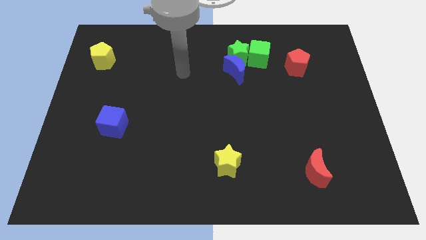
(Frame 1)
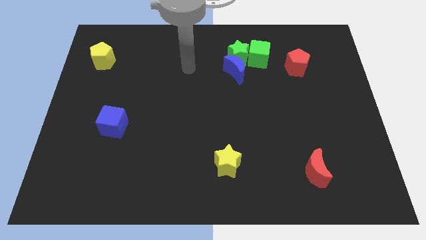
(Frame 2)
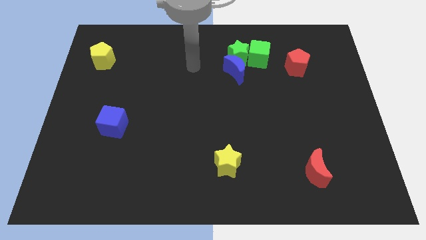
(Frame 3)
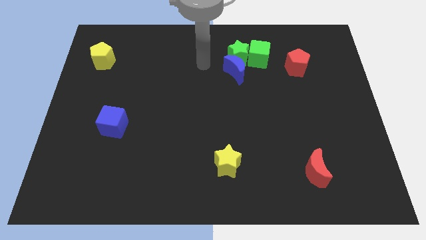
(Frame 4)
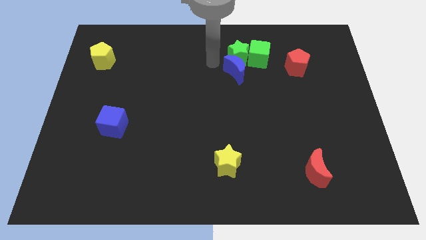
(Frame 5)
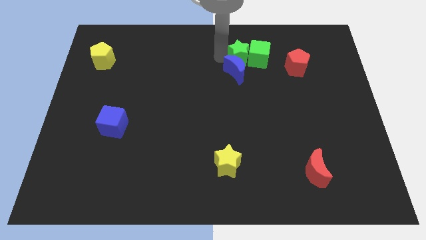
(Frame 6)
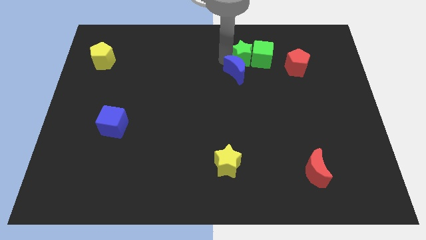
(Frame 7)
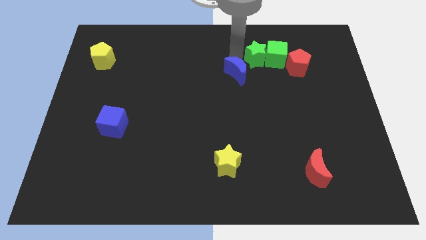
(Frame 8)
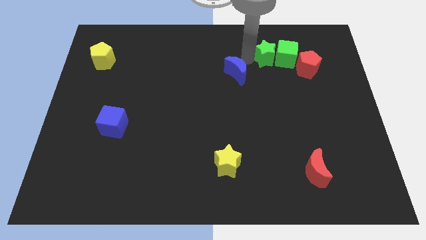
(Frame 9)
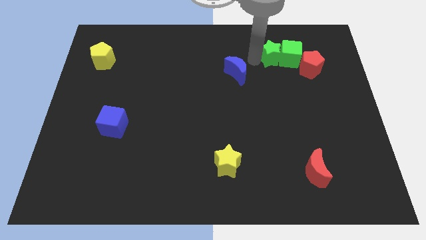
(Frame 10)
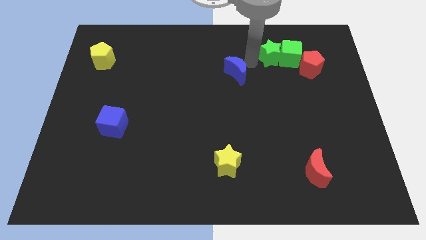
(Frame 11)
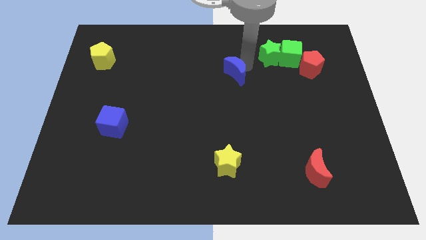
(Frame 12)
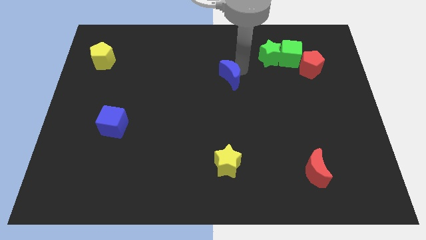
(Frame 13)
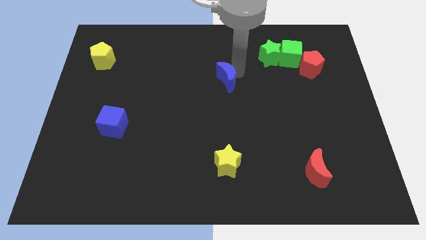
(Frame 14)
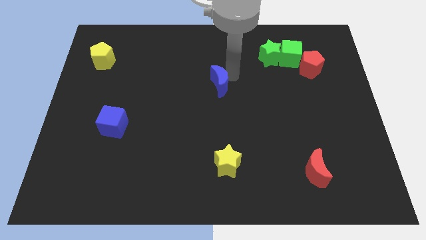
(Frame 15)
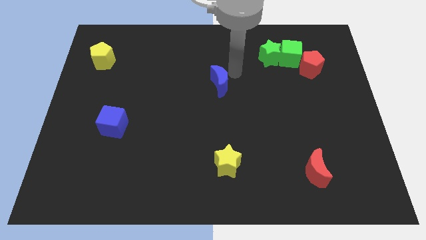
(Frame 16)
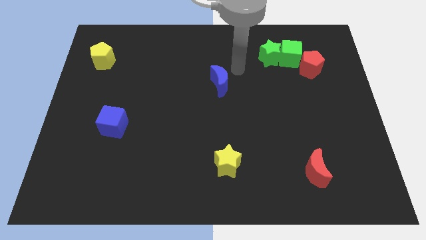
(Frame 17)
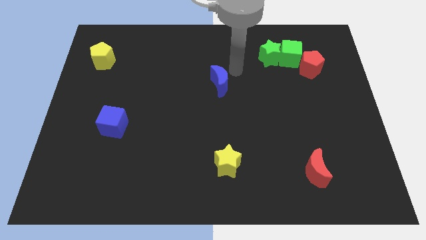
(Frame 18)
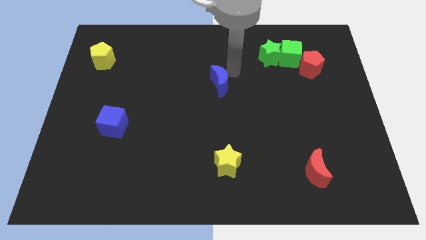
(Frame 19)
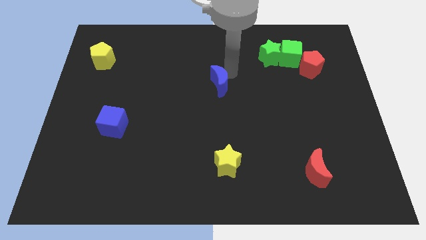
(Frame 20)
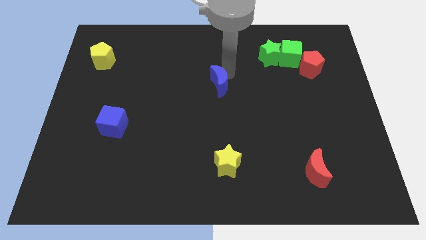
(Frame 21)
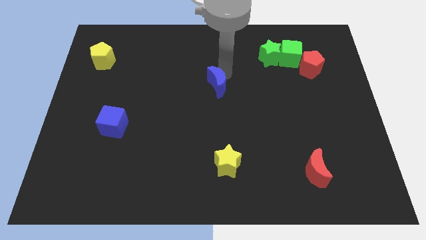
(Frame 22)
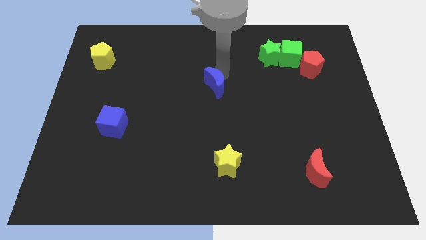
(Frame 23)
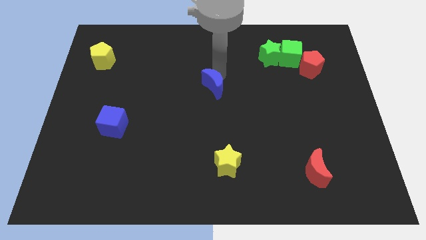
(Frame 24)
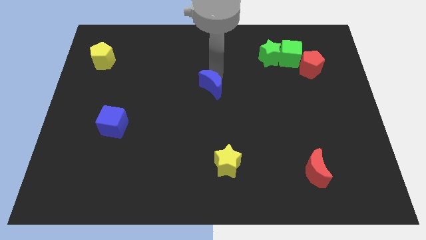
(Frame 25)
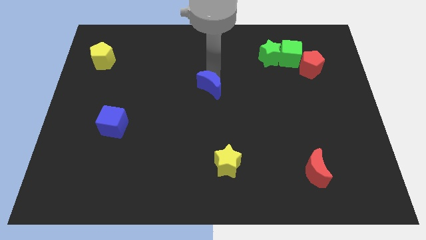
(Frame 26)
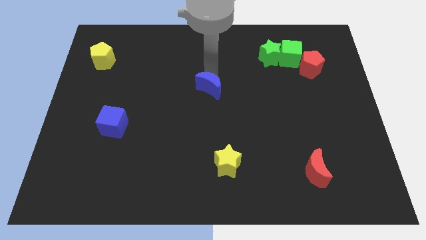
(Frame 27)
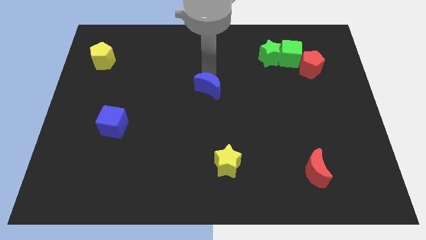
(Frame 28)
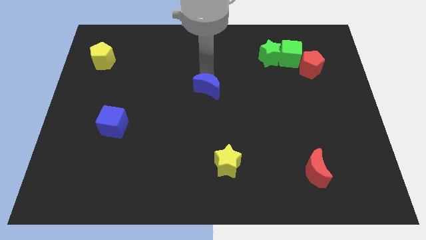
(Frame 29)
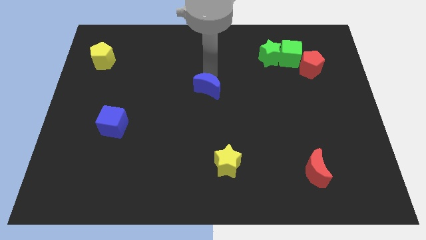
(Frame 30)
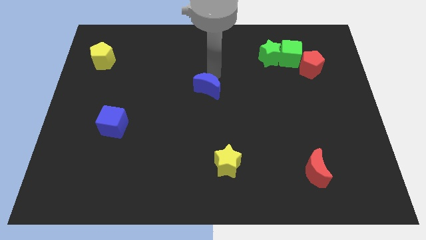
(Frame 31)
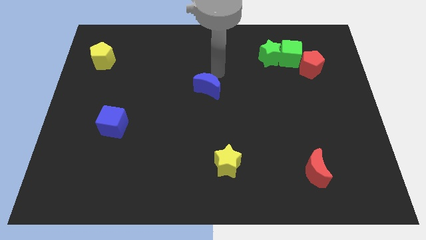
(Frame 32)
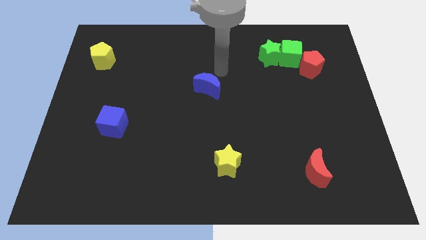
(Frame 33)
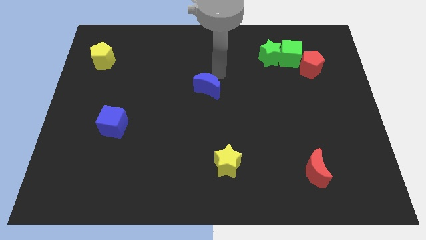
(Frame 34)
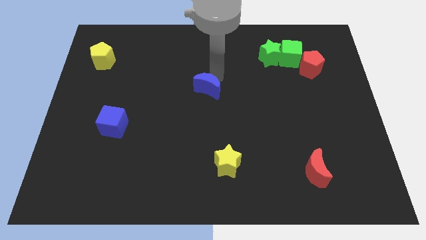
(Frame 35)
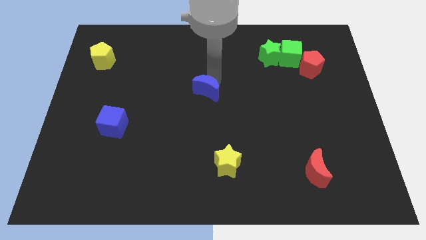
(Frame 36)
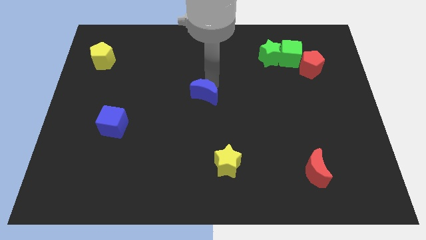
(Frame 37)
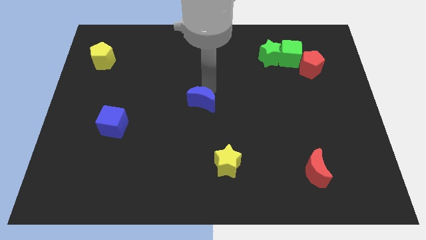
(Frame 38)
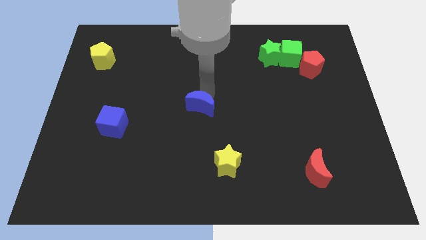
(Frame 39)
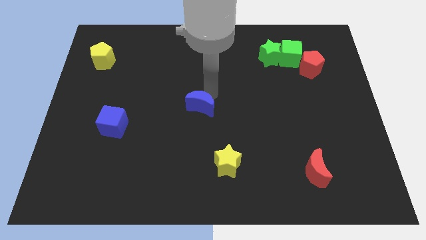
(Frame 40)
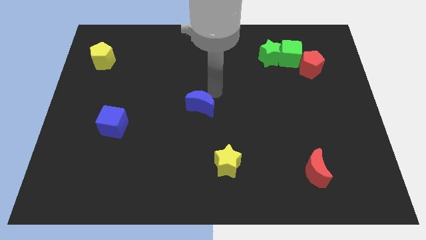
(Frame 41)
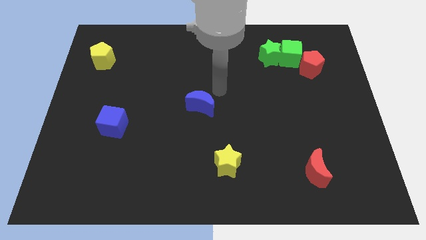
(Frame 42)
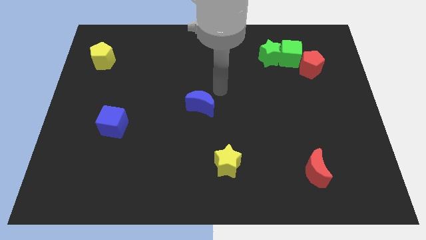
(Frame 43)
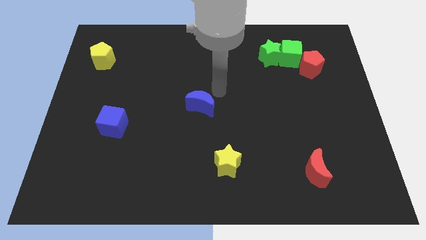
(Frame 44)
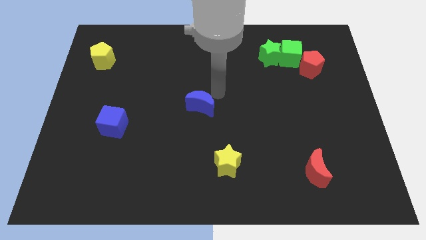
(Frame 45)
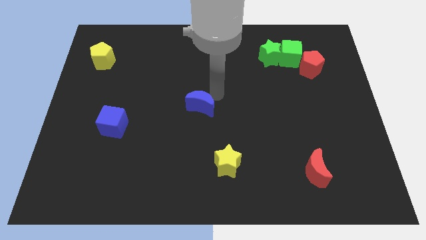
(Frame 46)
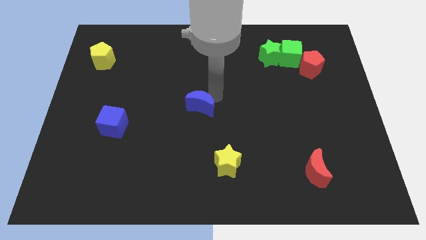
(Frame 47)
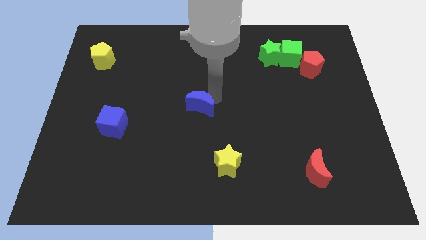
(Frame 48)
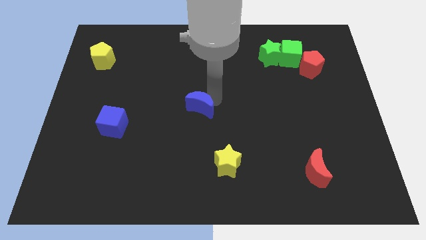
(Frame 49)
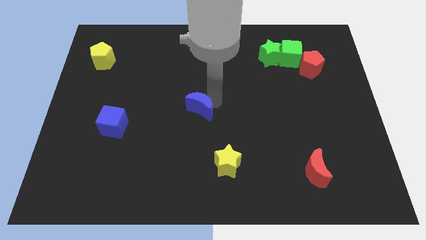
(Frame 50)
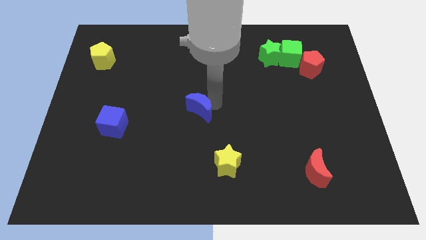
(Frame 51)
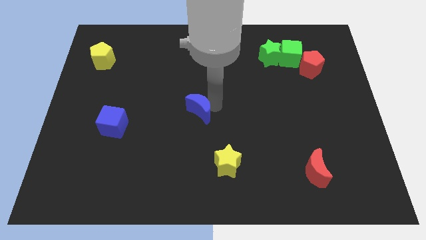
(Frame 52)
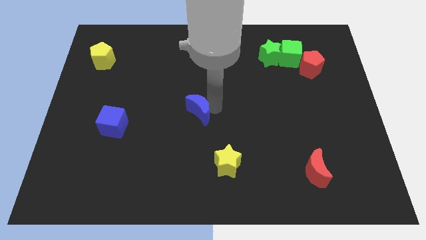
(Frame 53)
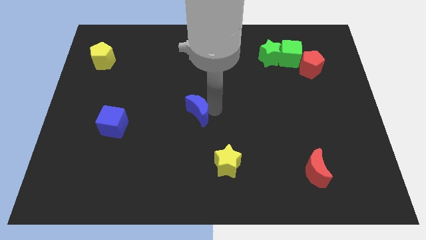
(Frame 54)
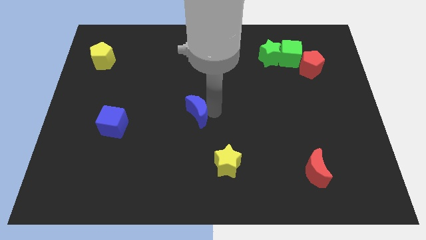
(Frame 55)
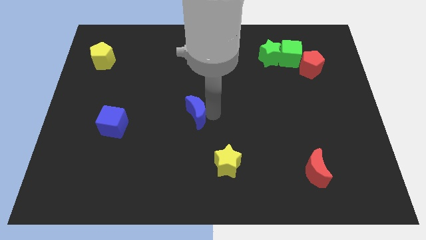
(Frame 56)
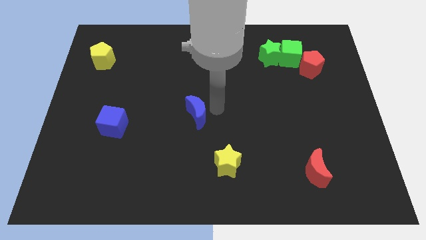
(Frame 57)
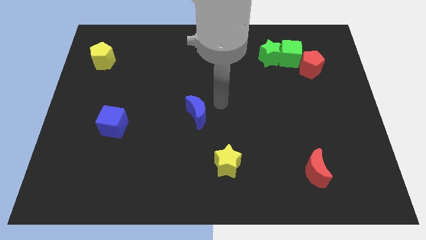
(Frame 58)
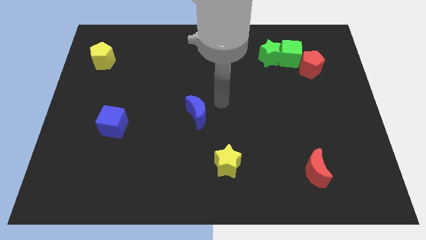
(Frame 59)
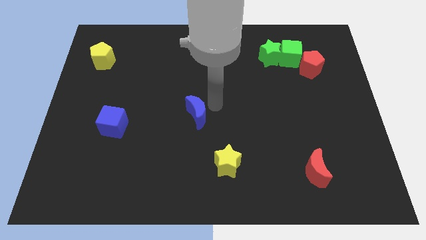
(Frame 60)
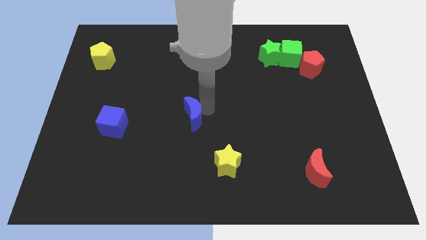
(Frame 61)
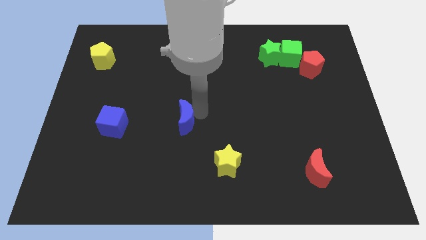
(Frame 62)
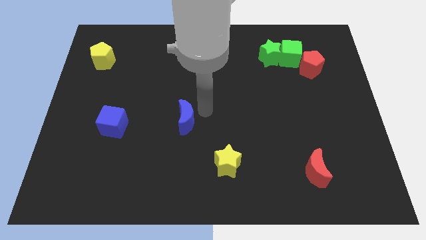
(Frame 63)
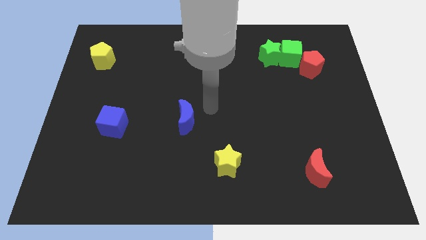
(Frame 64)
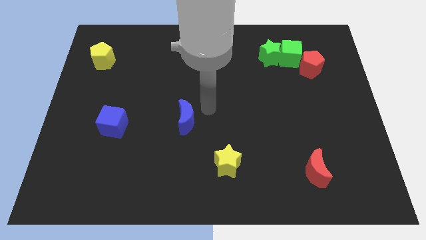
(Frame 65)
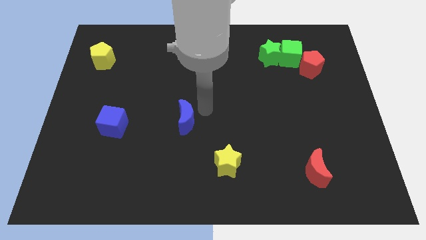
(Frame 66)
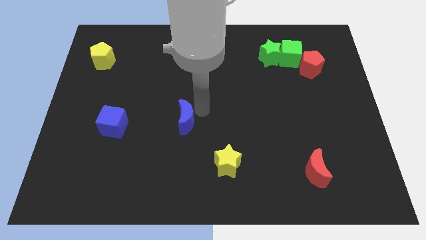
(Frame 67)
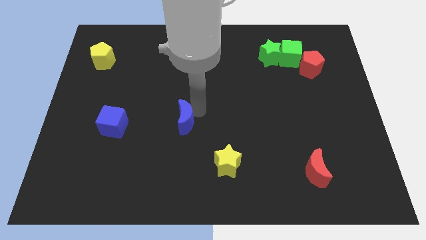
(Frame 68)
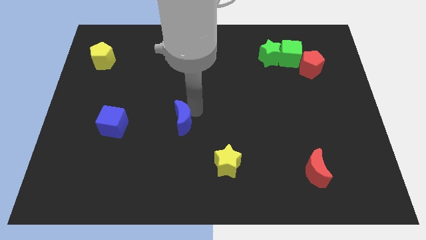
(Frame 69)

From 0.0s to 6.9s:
push the blue moon downwards and then to the left

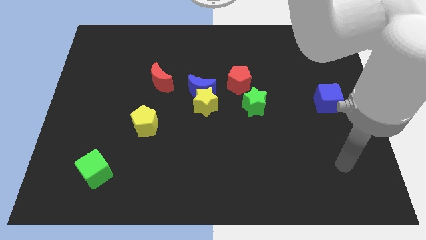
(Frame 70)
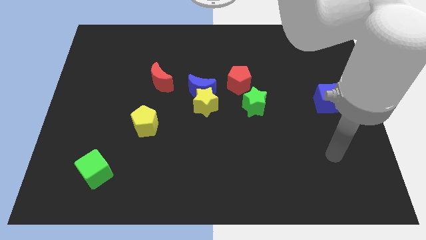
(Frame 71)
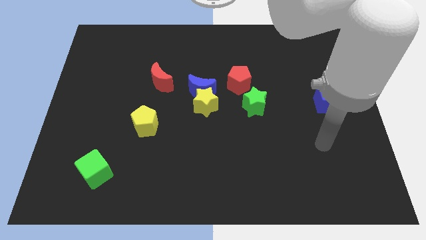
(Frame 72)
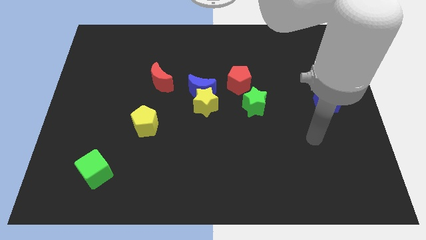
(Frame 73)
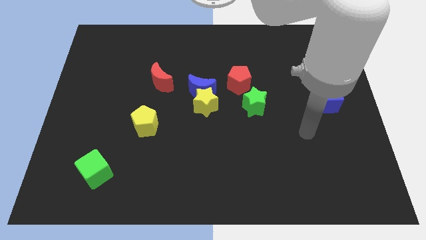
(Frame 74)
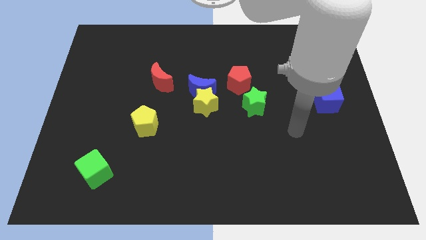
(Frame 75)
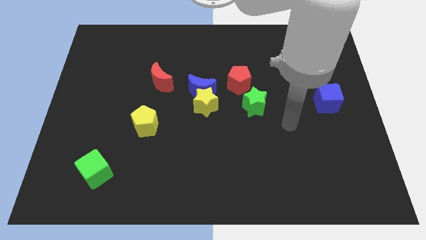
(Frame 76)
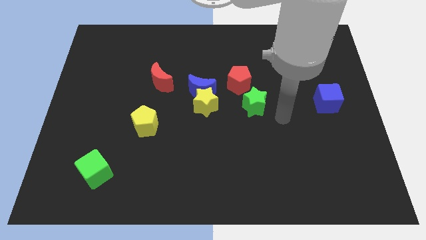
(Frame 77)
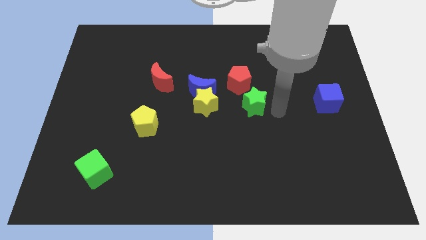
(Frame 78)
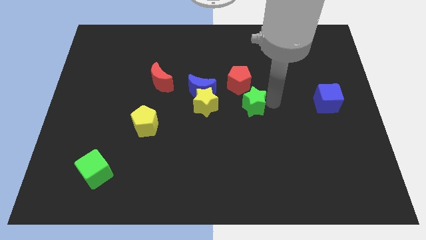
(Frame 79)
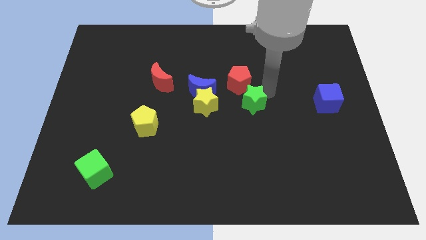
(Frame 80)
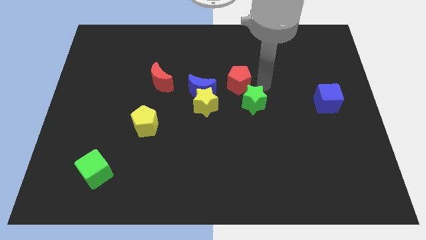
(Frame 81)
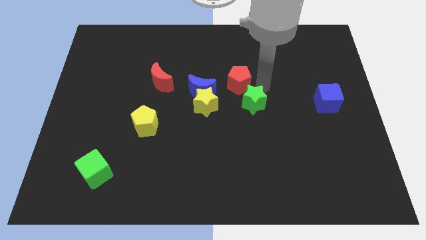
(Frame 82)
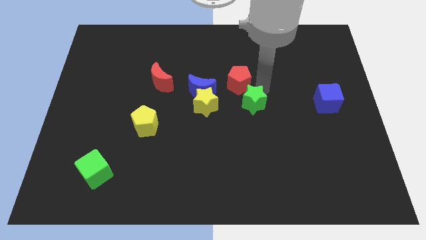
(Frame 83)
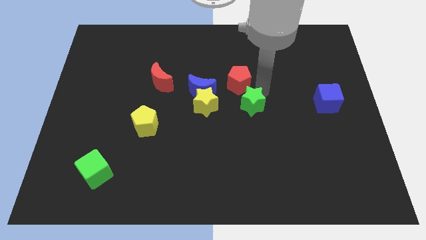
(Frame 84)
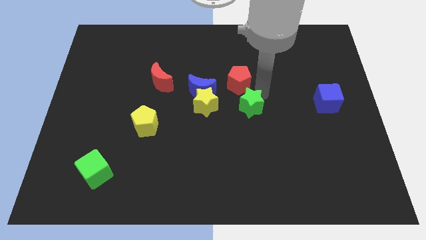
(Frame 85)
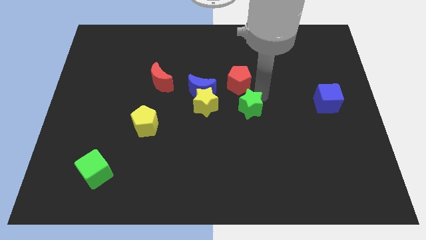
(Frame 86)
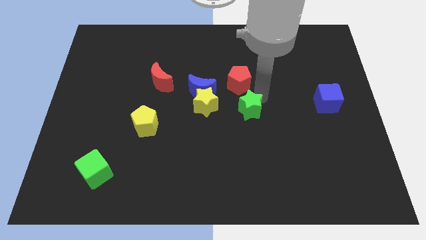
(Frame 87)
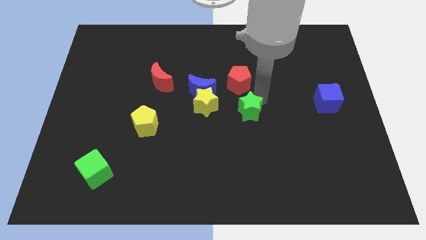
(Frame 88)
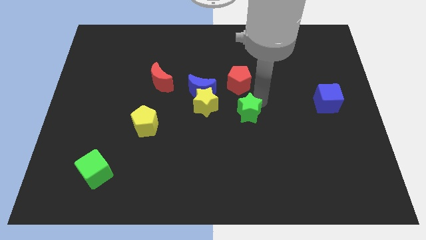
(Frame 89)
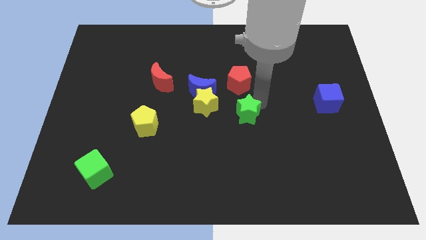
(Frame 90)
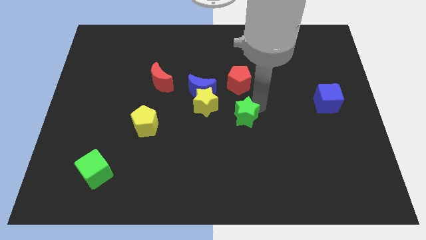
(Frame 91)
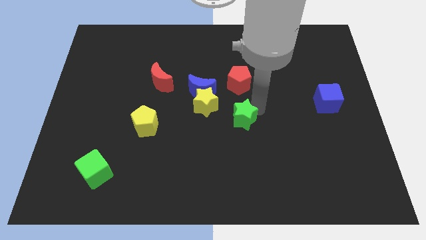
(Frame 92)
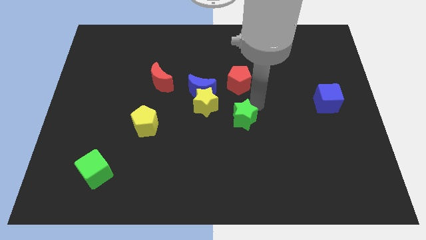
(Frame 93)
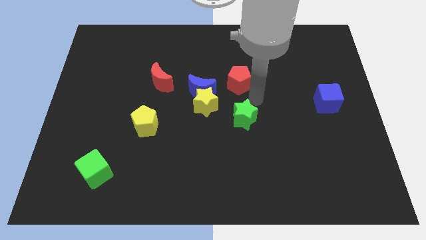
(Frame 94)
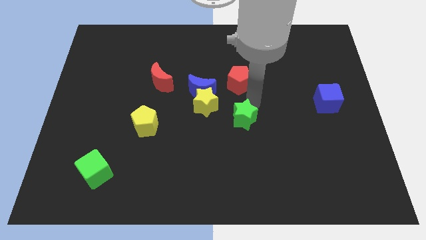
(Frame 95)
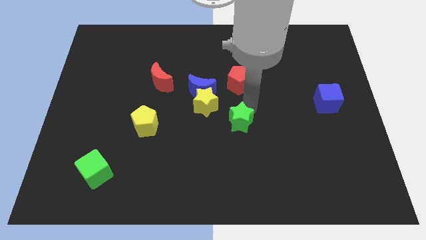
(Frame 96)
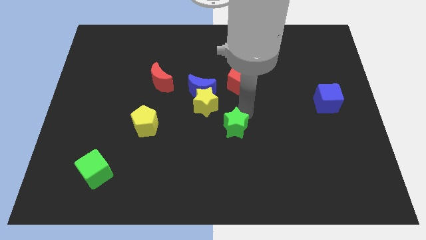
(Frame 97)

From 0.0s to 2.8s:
push the green star downwards and then to the left slightly
